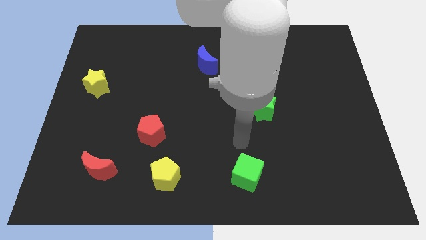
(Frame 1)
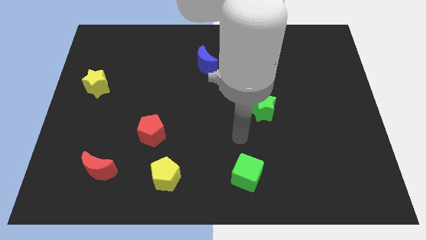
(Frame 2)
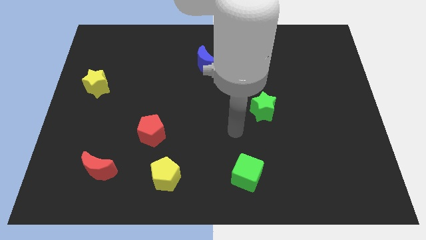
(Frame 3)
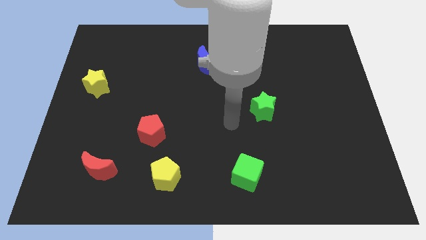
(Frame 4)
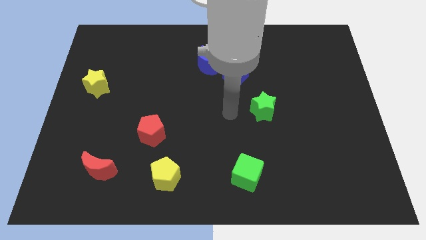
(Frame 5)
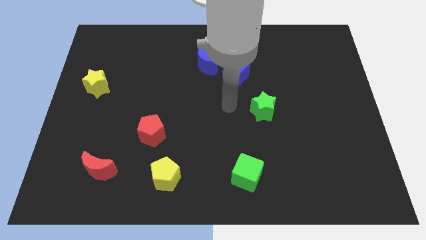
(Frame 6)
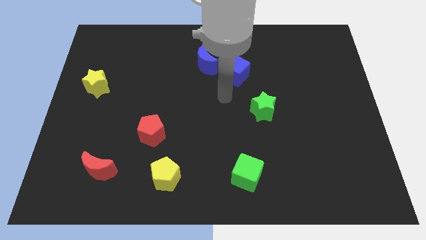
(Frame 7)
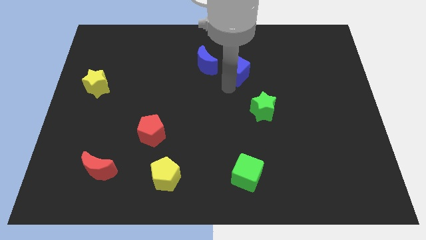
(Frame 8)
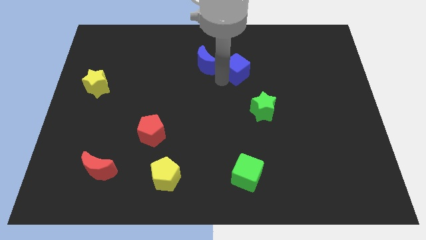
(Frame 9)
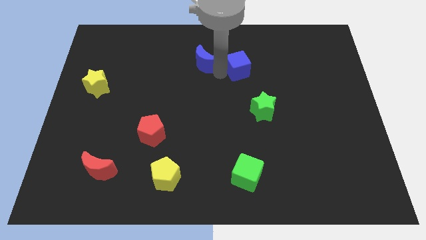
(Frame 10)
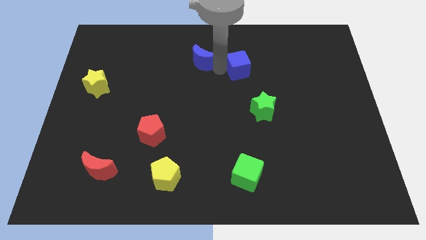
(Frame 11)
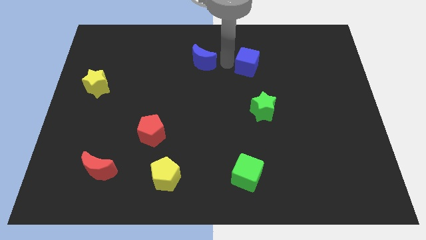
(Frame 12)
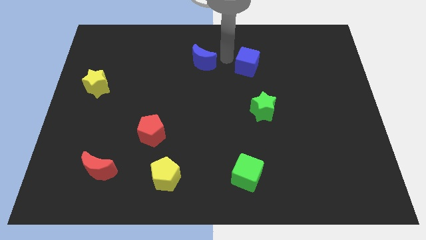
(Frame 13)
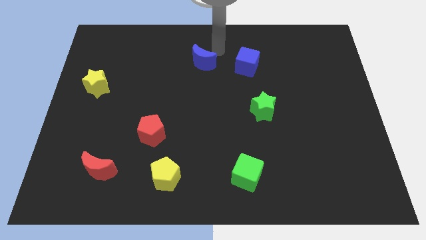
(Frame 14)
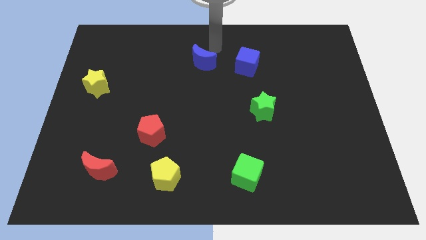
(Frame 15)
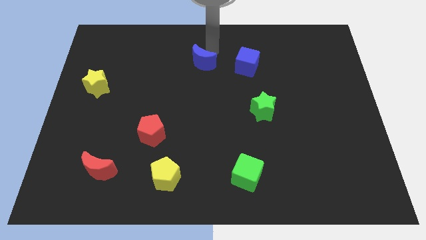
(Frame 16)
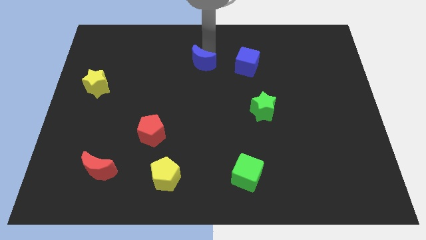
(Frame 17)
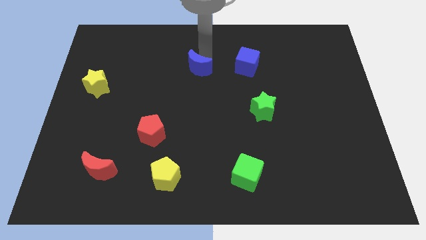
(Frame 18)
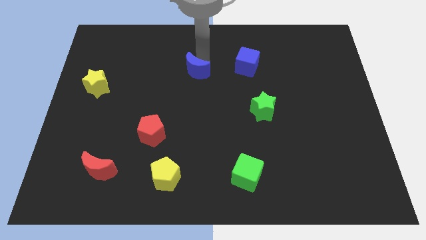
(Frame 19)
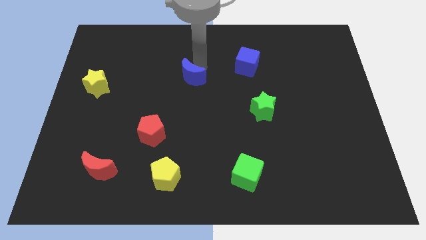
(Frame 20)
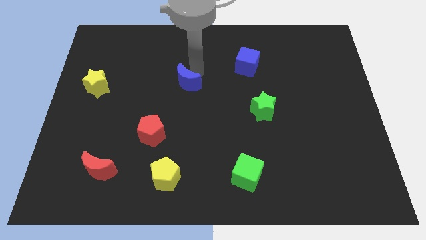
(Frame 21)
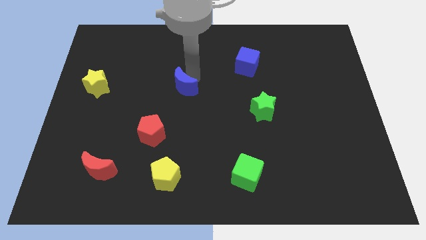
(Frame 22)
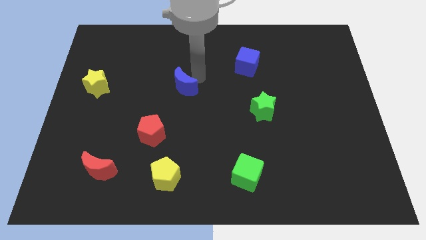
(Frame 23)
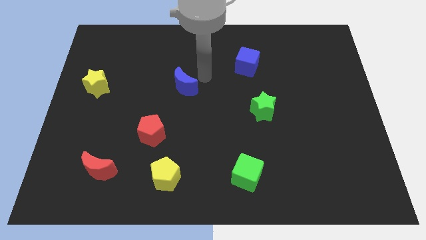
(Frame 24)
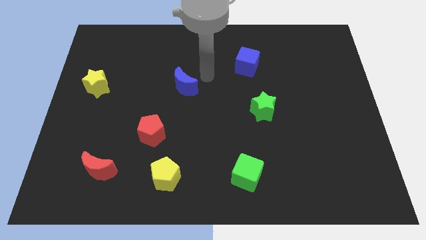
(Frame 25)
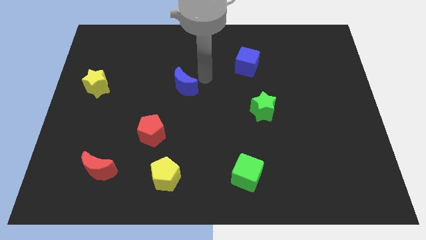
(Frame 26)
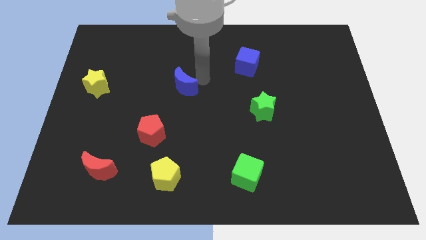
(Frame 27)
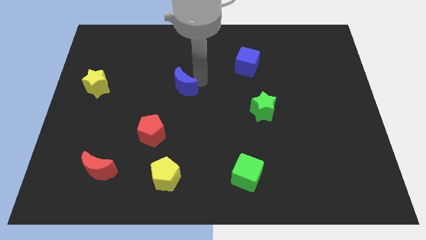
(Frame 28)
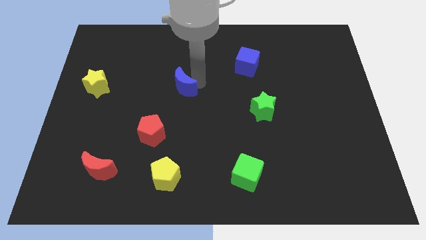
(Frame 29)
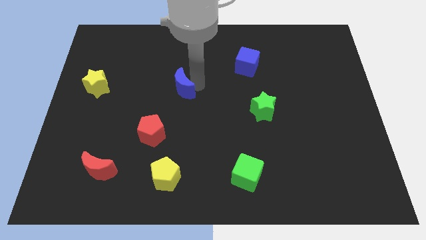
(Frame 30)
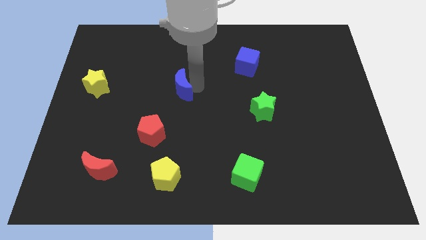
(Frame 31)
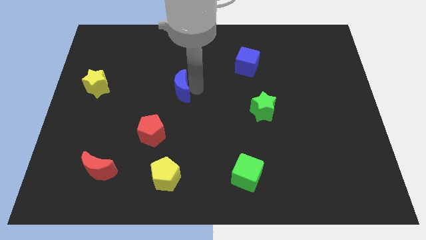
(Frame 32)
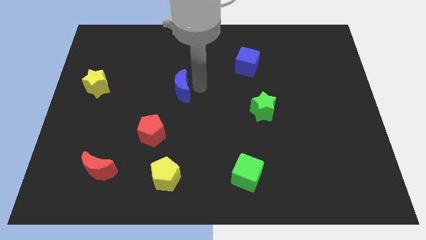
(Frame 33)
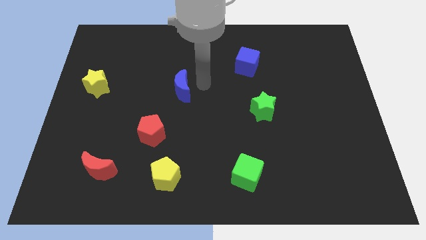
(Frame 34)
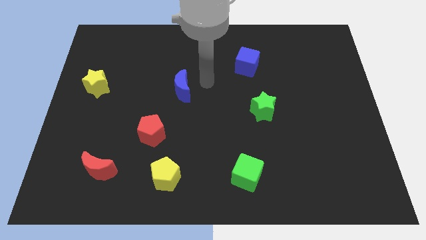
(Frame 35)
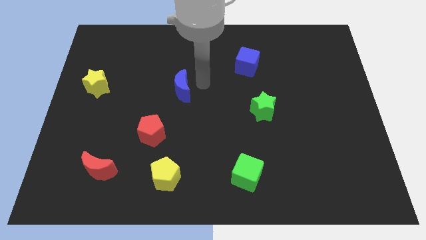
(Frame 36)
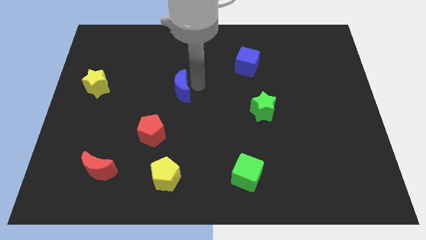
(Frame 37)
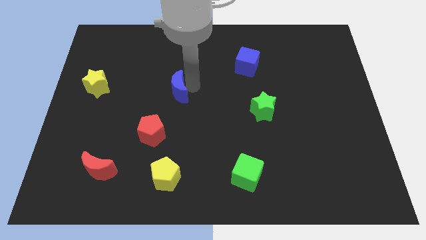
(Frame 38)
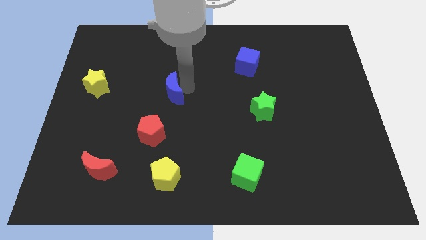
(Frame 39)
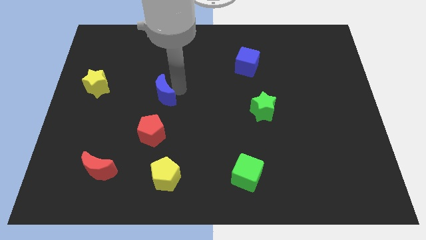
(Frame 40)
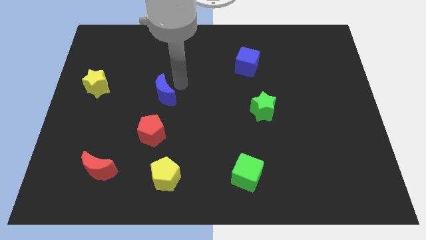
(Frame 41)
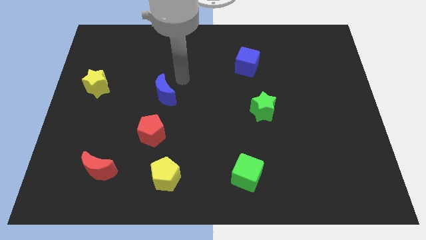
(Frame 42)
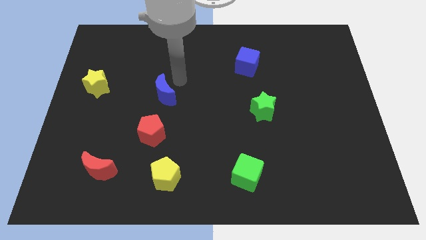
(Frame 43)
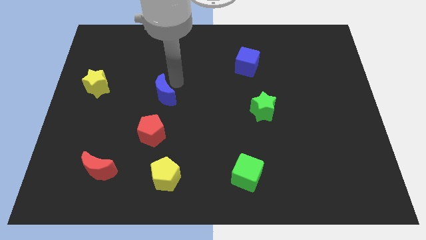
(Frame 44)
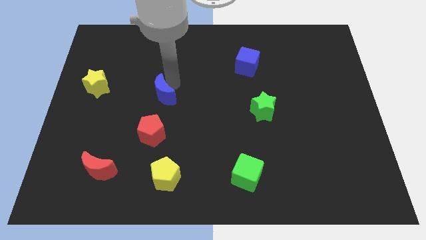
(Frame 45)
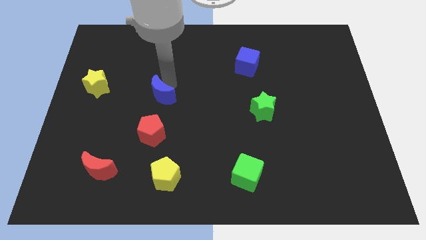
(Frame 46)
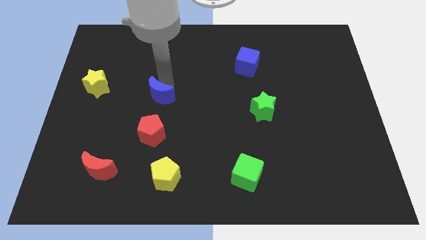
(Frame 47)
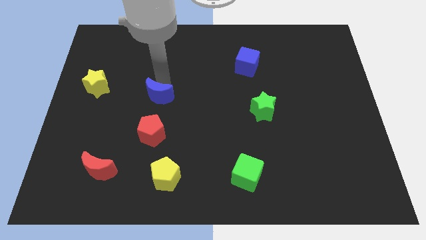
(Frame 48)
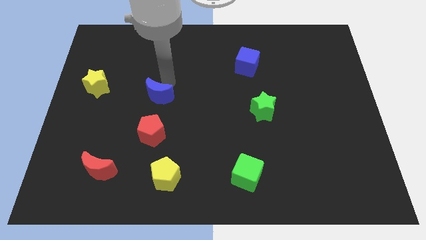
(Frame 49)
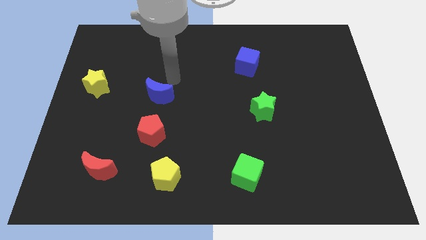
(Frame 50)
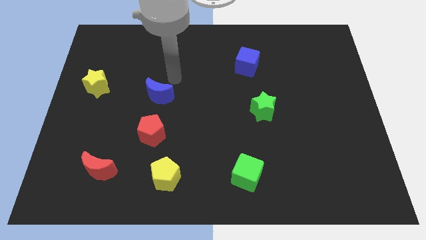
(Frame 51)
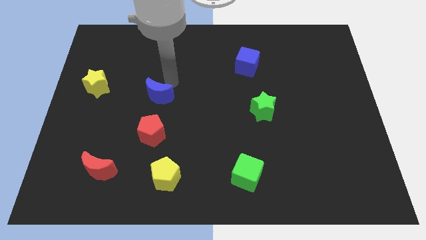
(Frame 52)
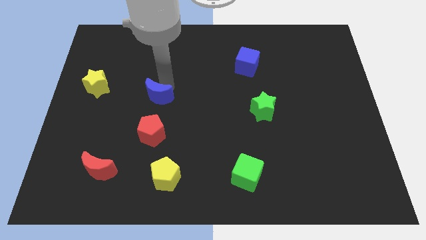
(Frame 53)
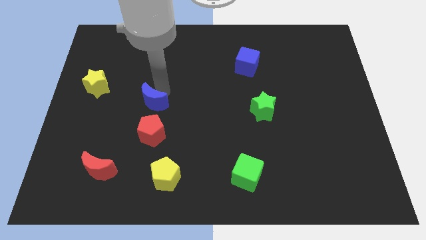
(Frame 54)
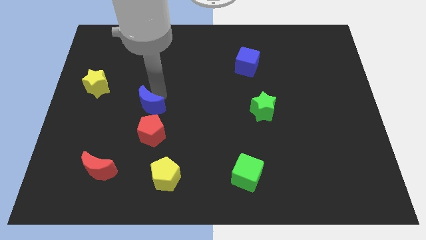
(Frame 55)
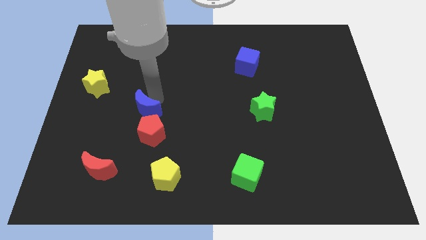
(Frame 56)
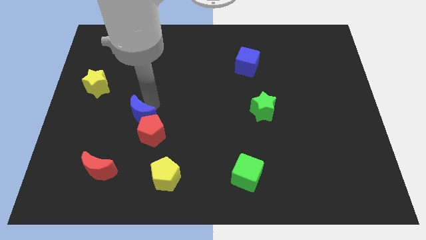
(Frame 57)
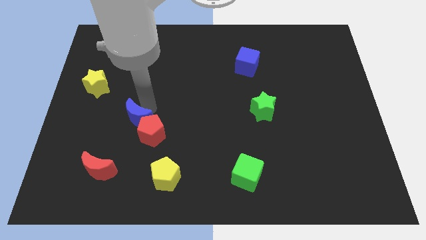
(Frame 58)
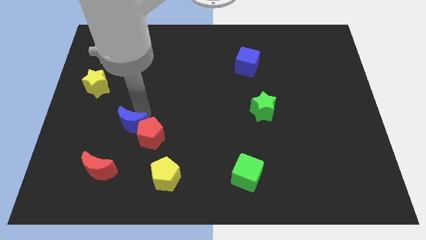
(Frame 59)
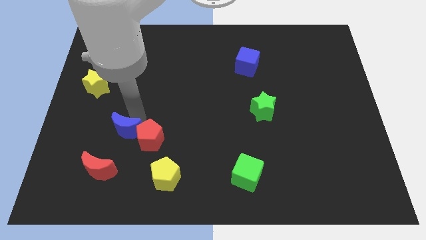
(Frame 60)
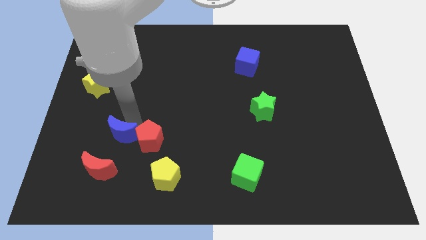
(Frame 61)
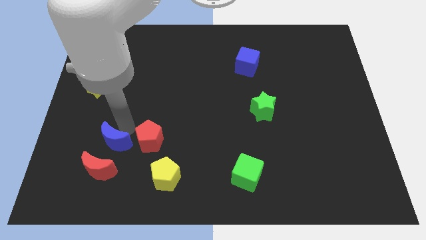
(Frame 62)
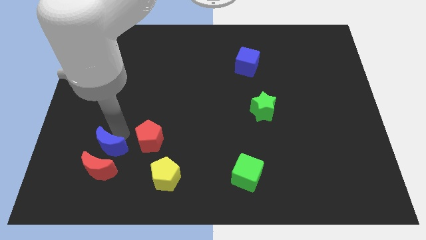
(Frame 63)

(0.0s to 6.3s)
move the blue moon close to the red moon

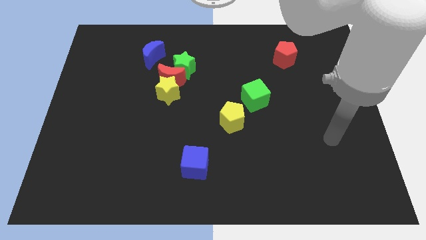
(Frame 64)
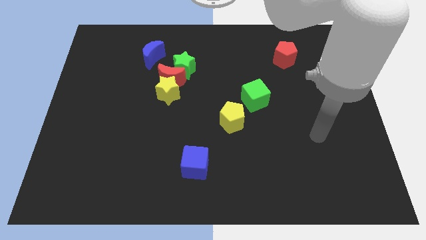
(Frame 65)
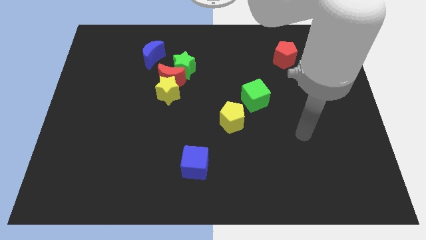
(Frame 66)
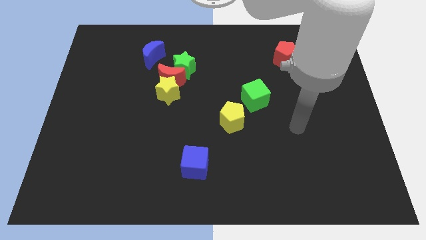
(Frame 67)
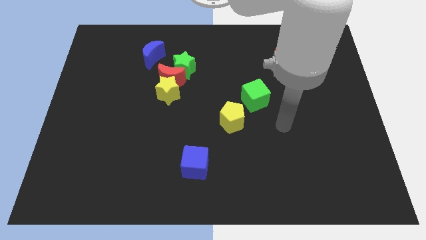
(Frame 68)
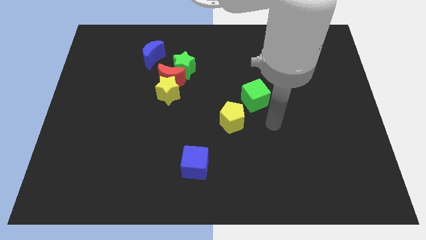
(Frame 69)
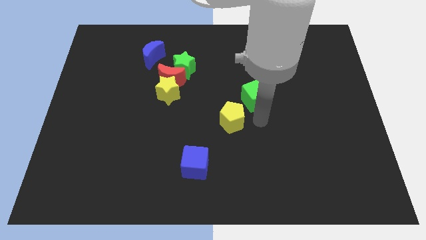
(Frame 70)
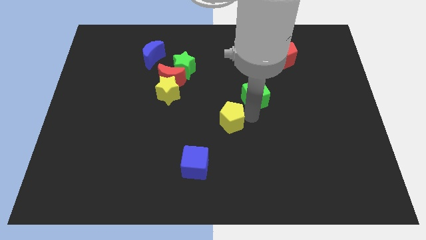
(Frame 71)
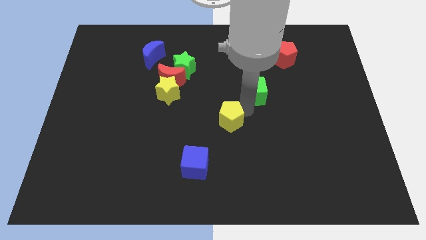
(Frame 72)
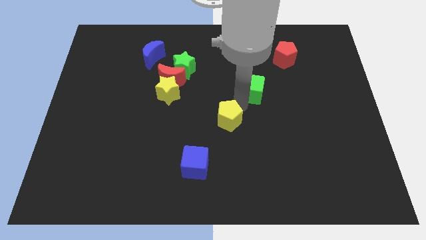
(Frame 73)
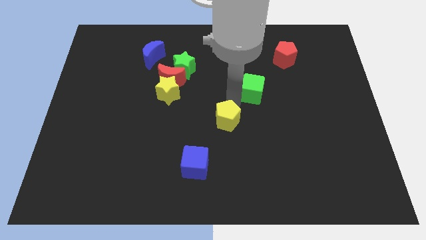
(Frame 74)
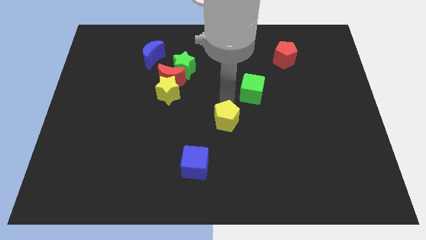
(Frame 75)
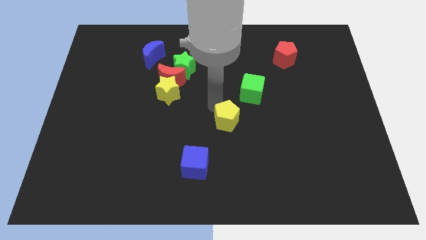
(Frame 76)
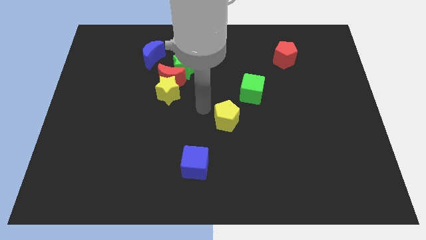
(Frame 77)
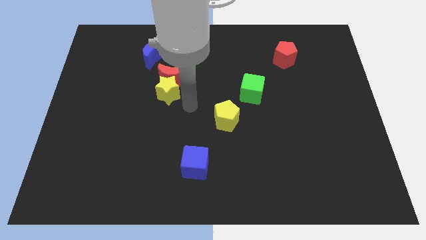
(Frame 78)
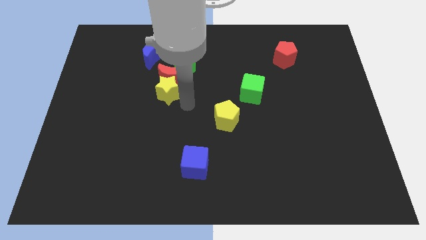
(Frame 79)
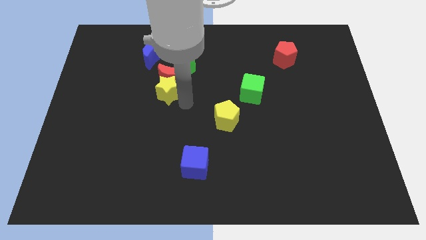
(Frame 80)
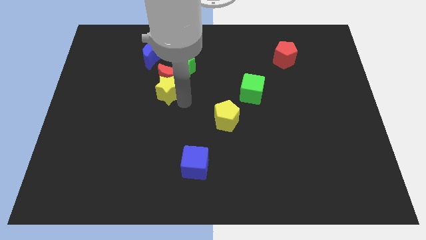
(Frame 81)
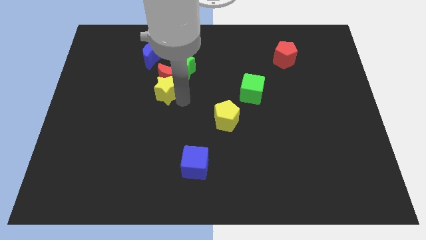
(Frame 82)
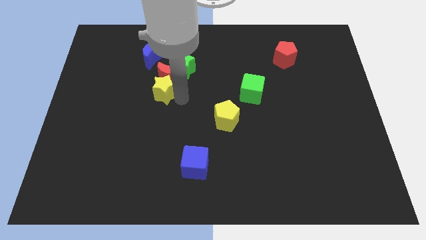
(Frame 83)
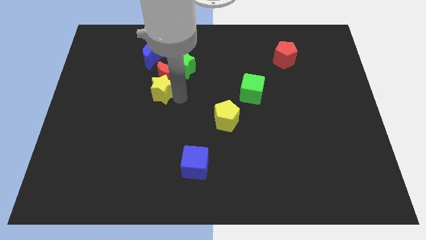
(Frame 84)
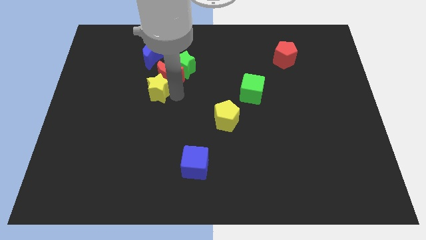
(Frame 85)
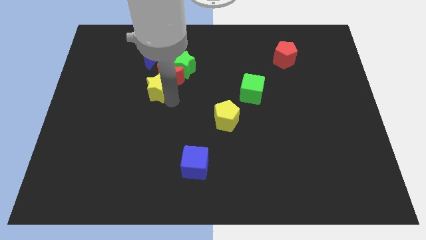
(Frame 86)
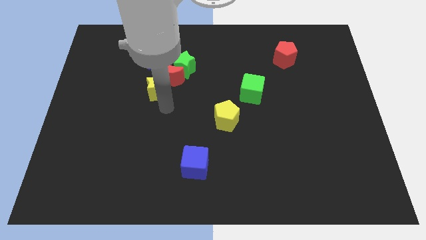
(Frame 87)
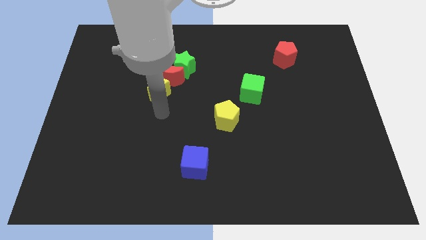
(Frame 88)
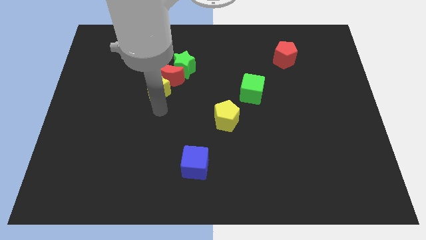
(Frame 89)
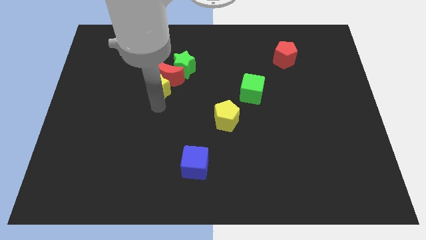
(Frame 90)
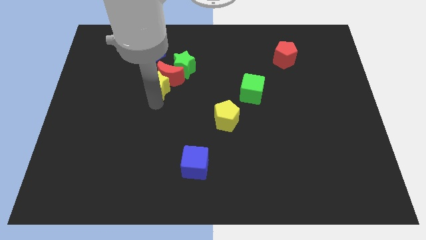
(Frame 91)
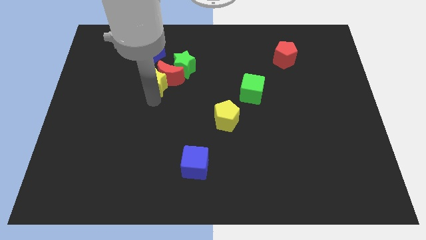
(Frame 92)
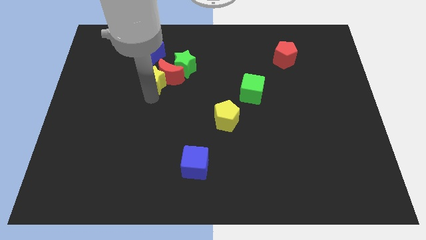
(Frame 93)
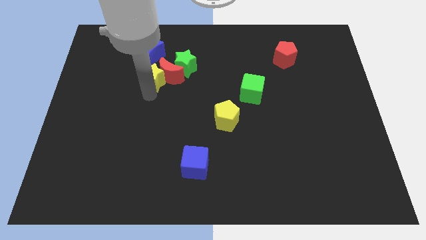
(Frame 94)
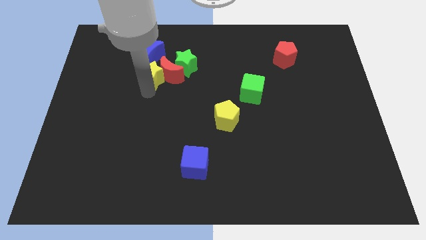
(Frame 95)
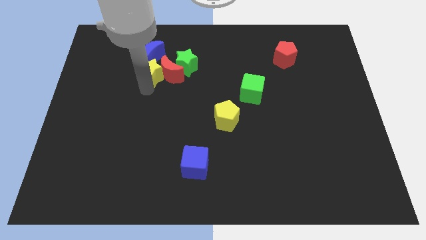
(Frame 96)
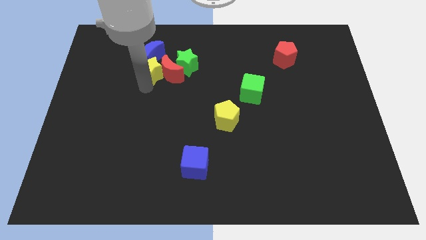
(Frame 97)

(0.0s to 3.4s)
push the yellow star next to the blue moon
